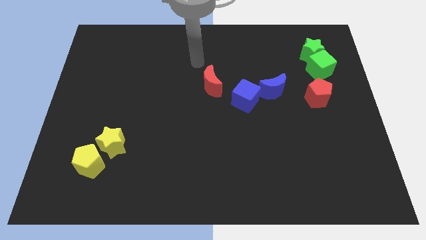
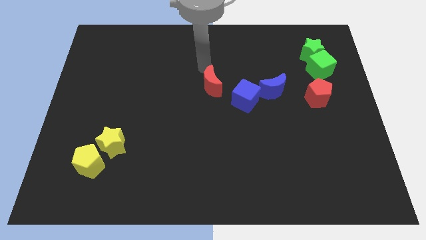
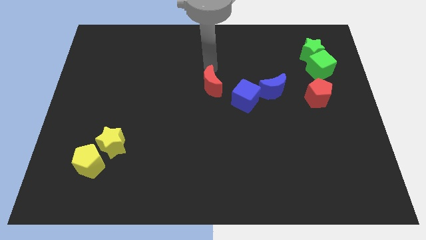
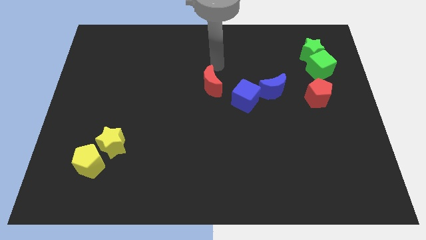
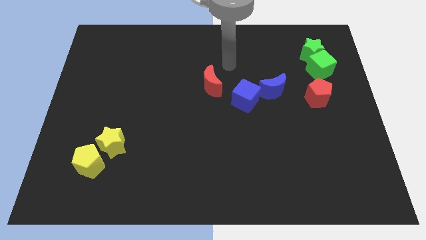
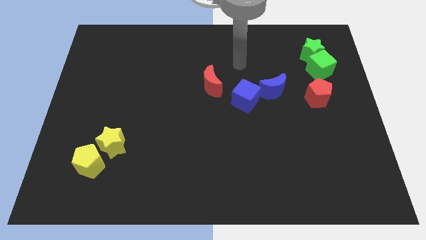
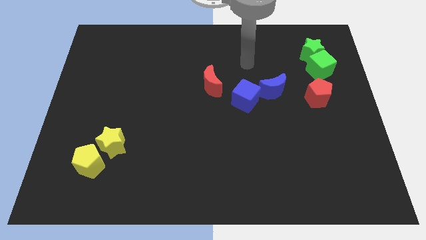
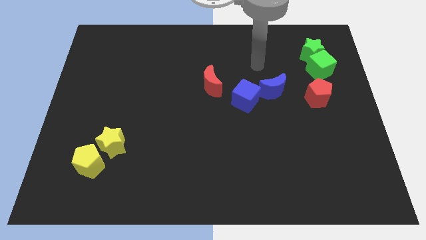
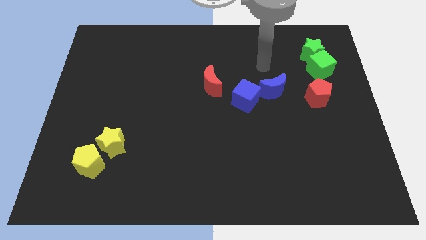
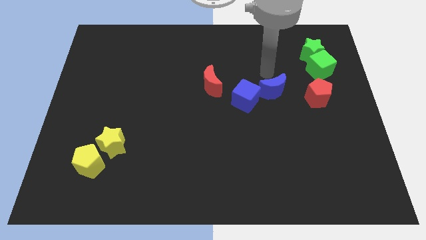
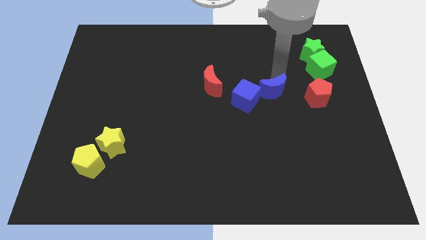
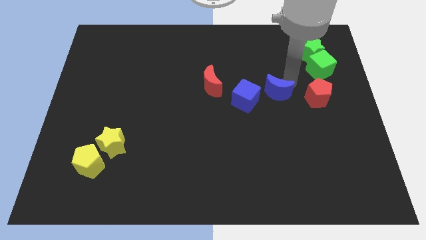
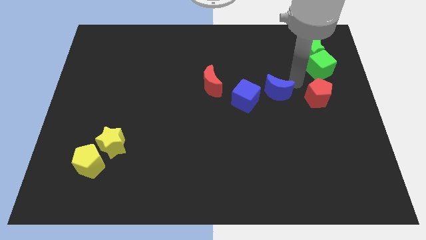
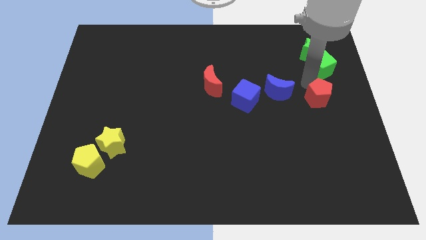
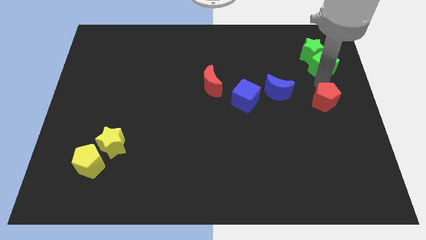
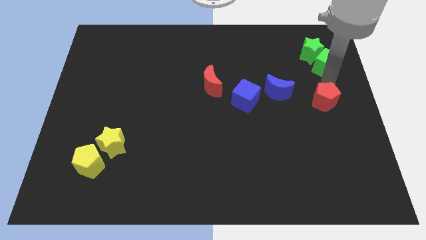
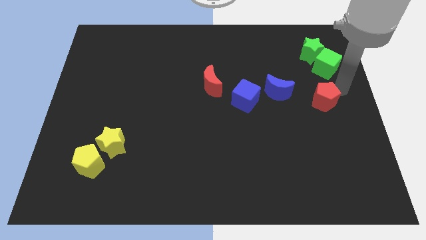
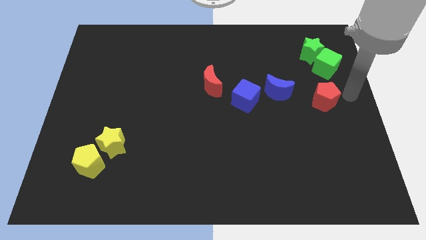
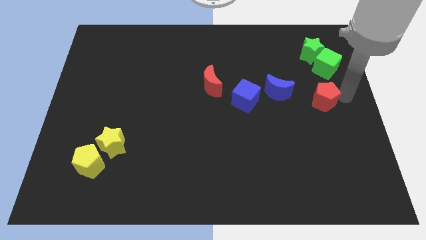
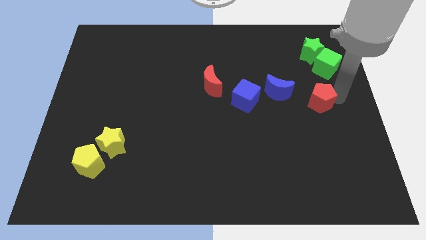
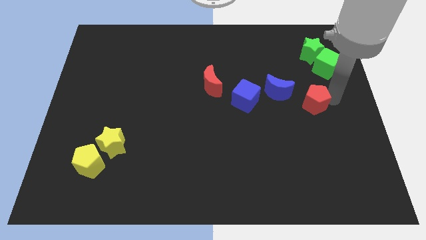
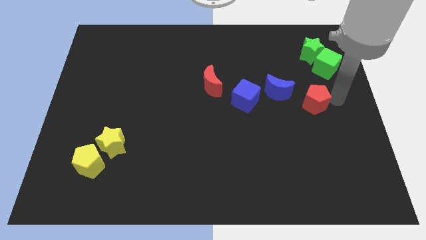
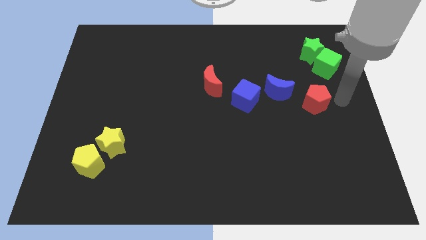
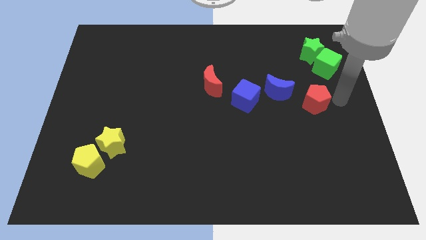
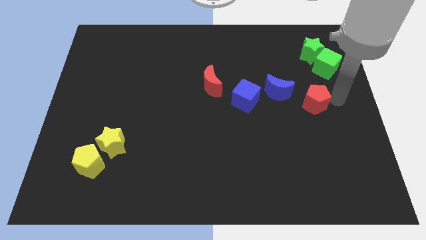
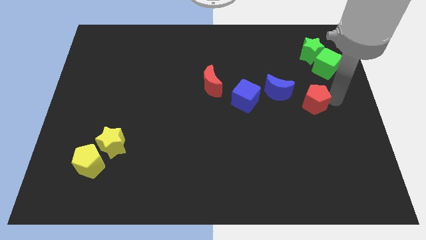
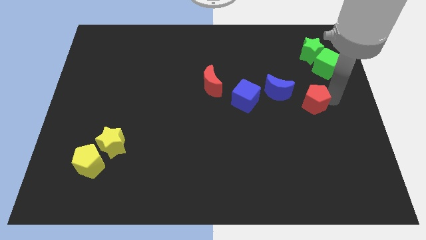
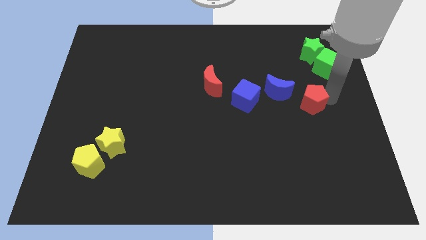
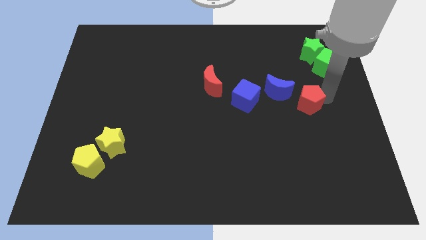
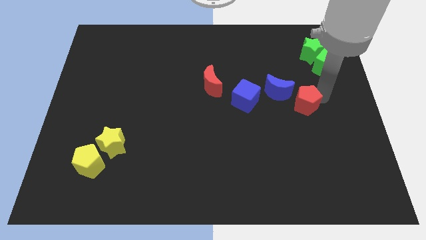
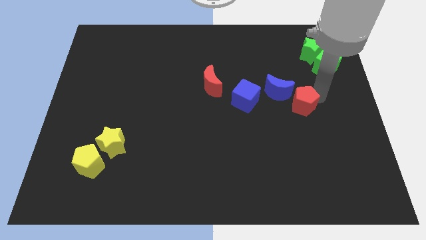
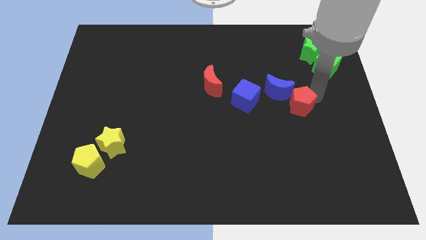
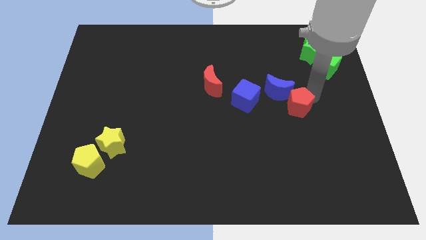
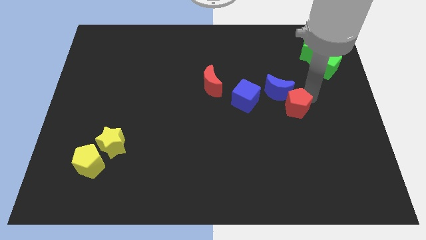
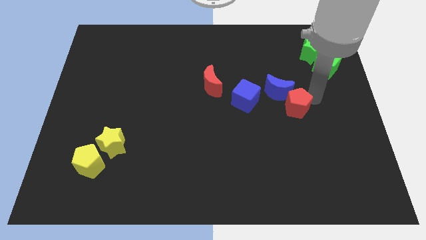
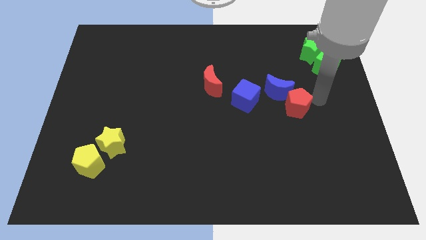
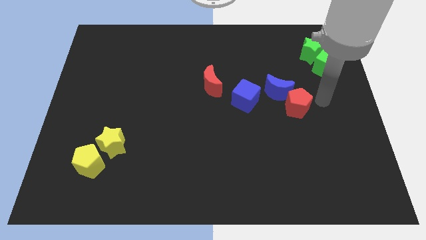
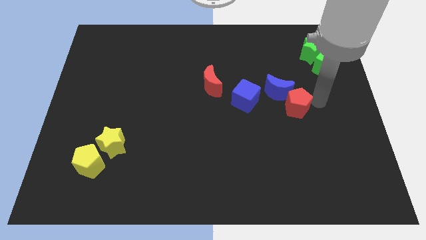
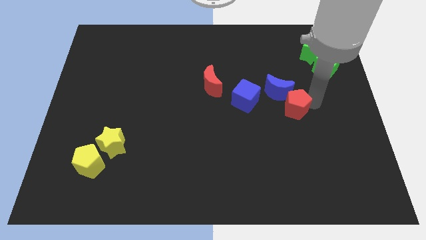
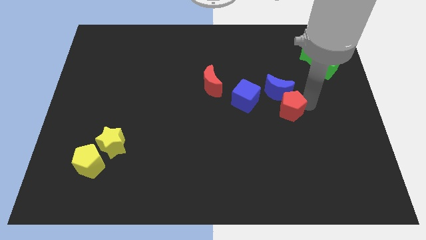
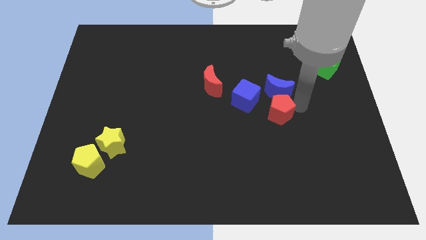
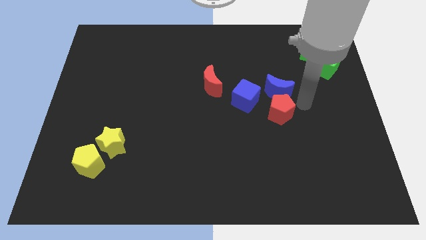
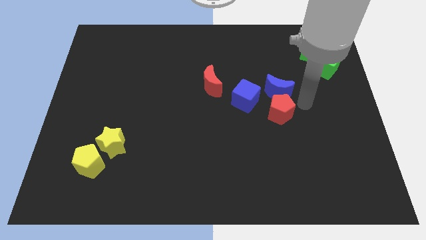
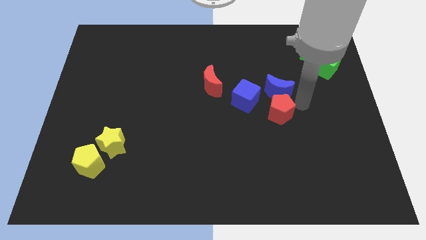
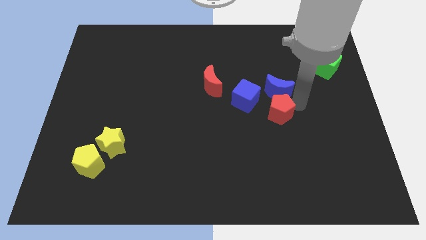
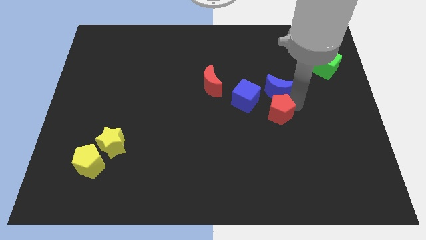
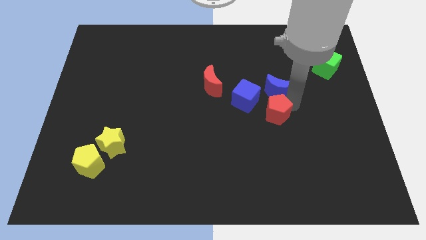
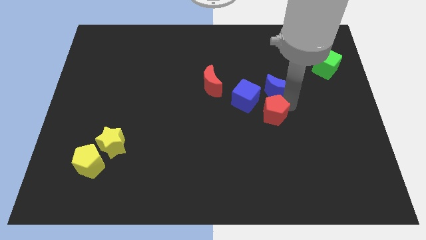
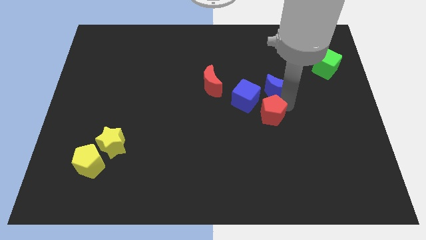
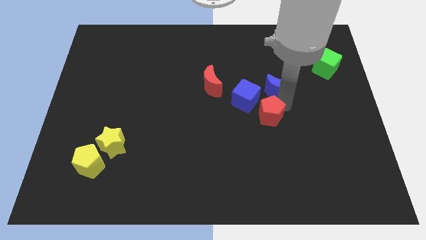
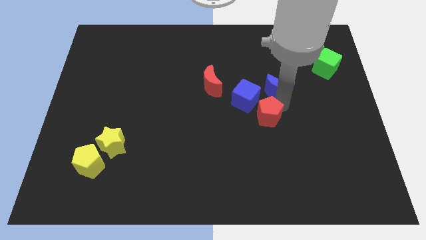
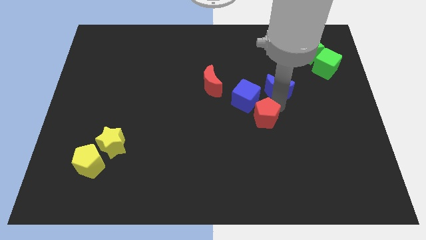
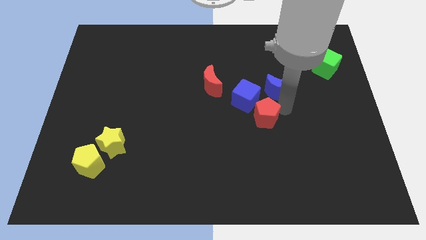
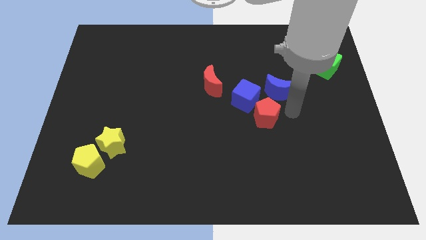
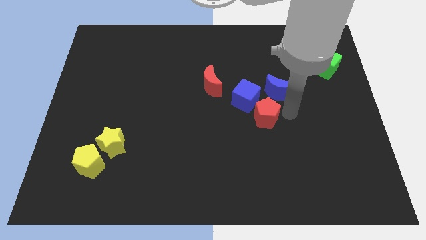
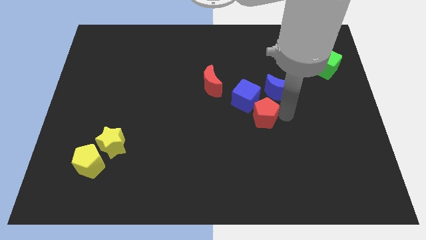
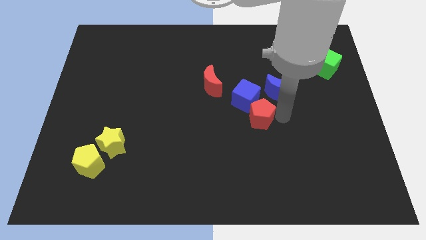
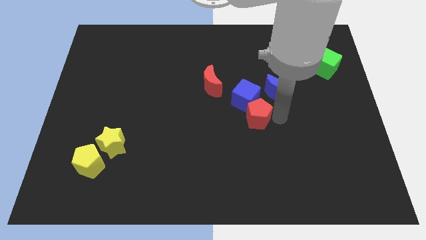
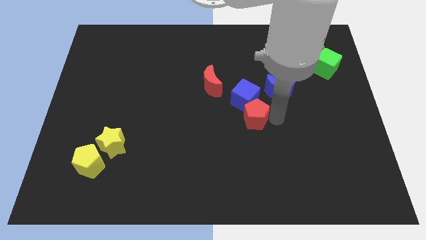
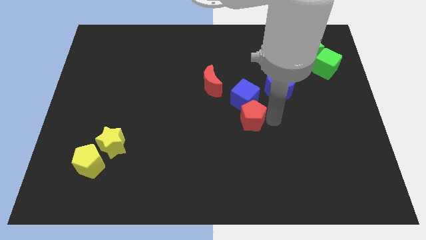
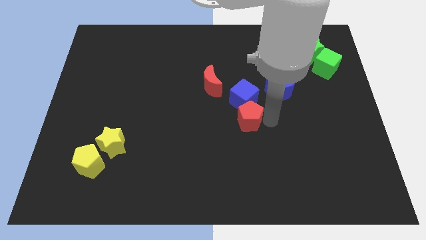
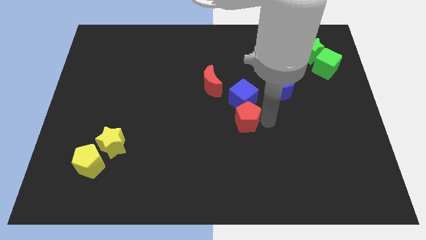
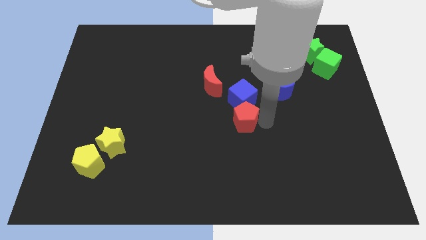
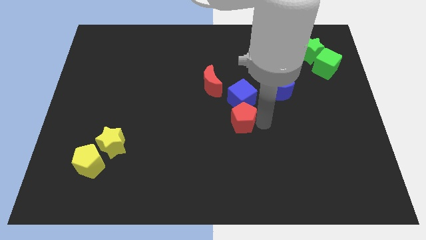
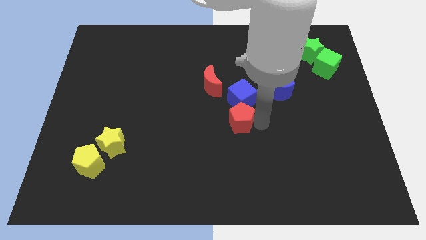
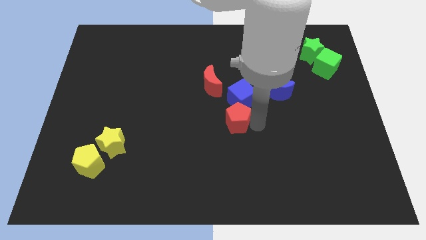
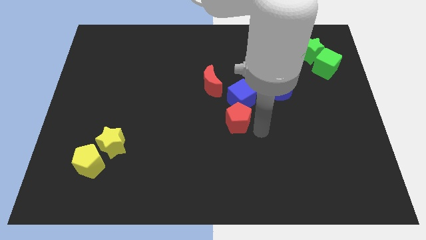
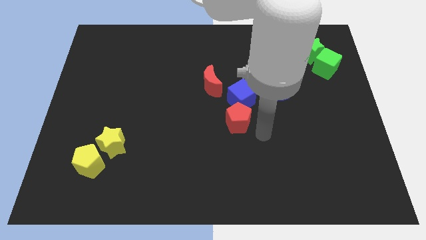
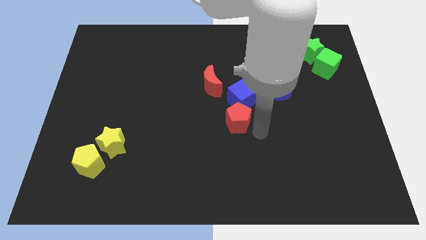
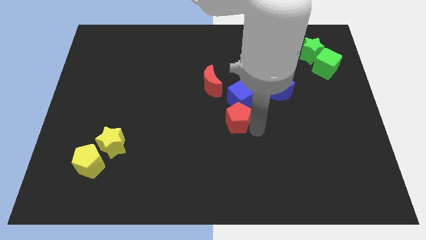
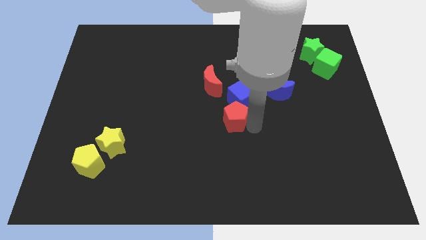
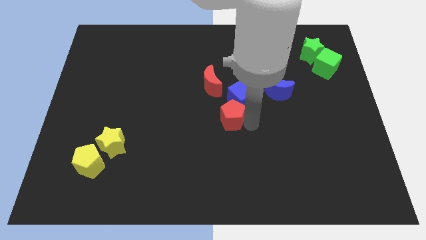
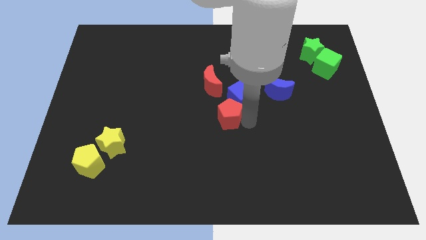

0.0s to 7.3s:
slide the red pentagon to the left

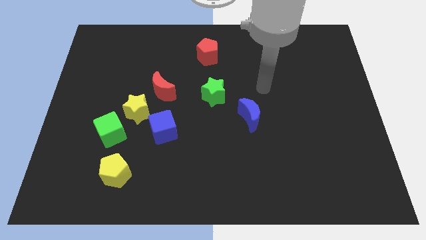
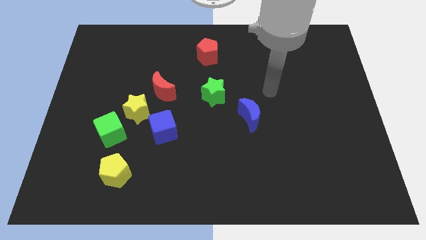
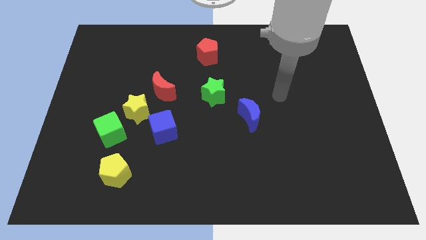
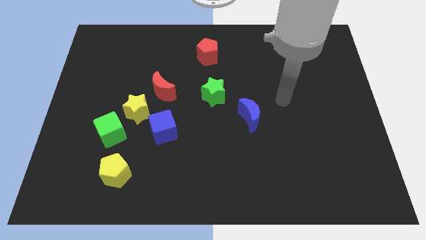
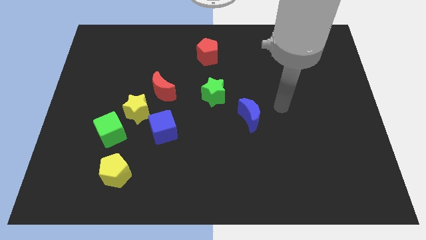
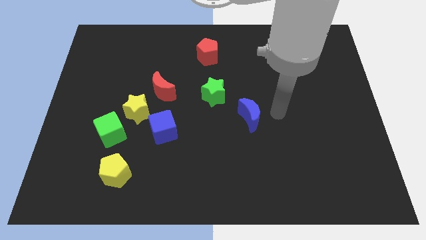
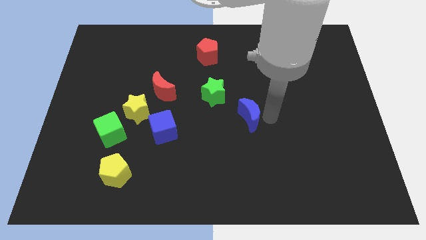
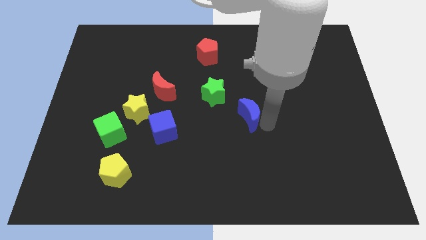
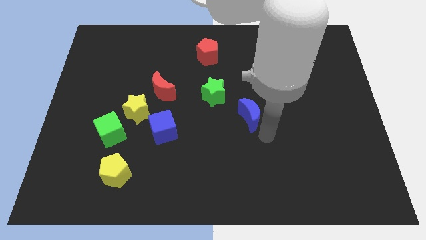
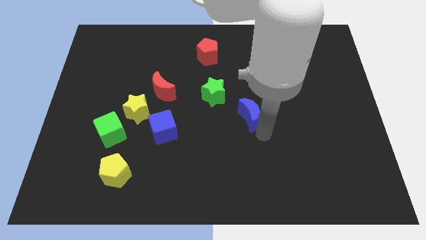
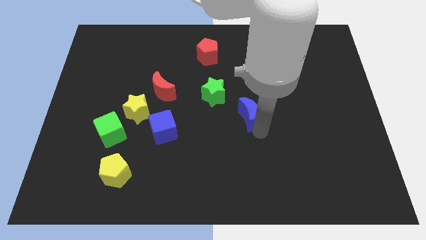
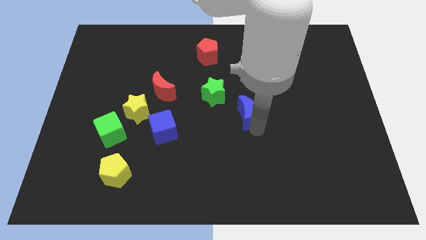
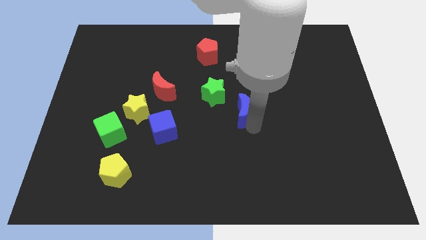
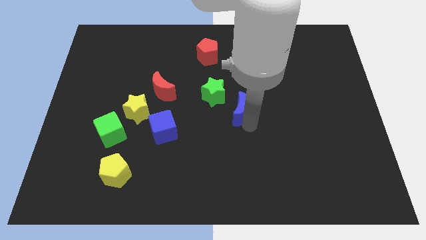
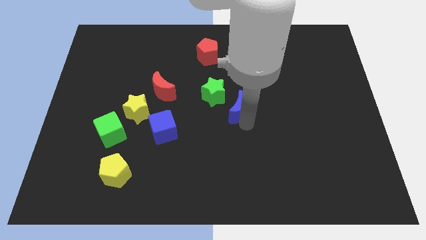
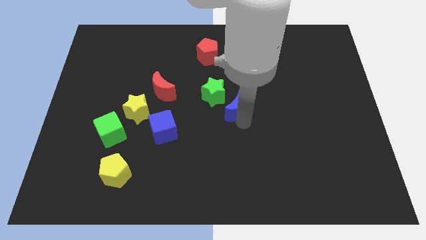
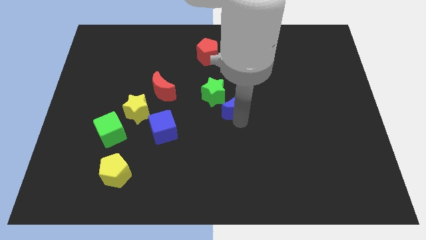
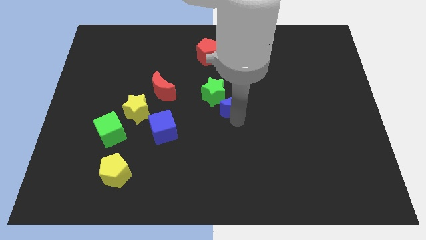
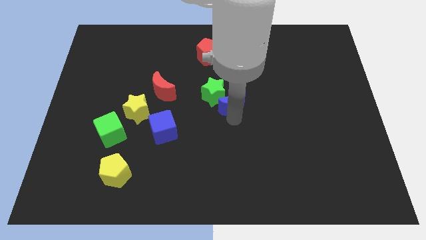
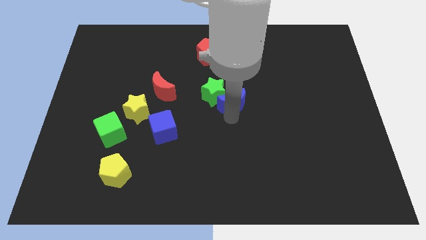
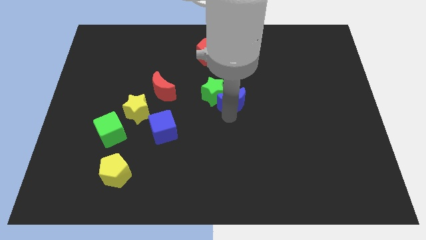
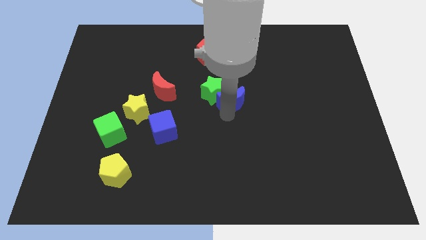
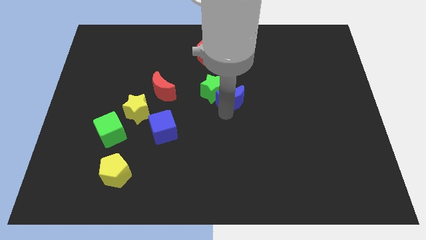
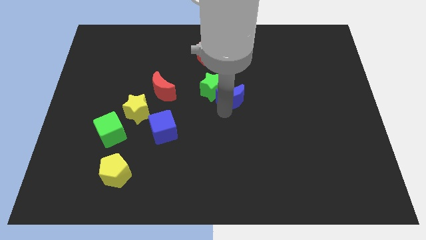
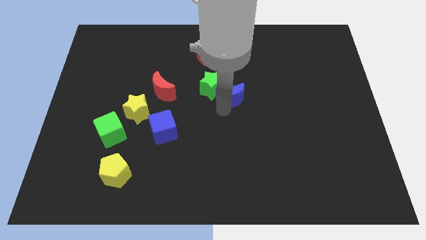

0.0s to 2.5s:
push the blue moon a bit up and to the left
